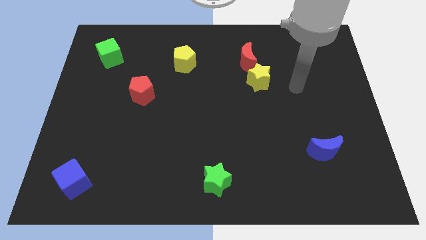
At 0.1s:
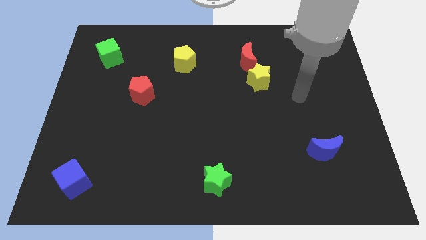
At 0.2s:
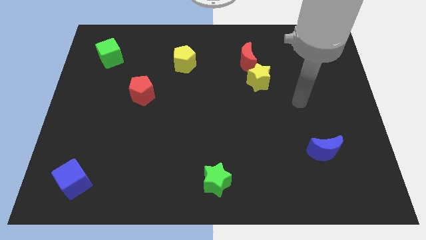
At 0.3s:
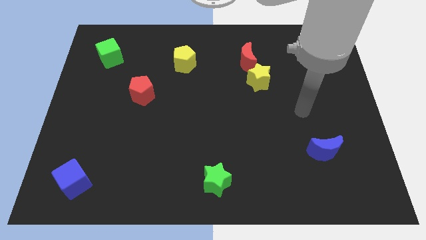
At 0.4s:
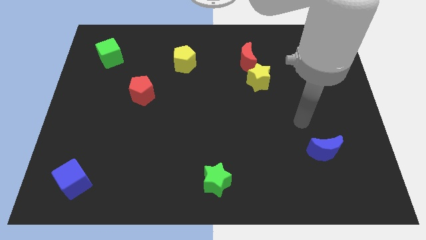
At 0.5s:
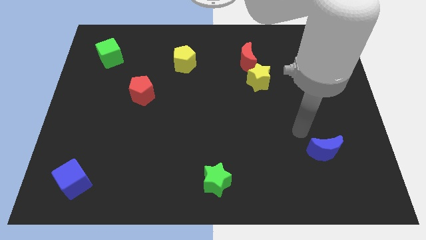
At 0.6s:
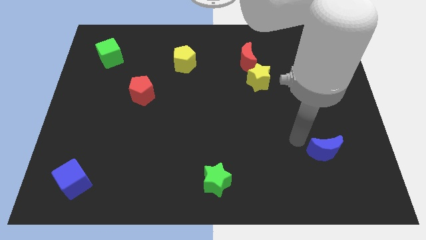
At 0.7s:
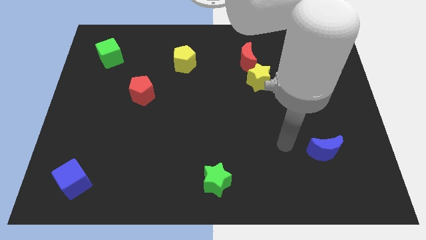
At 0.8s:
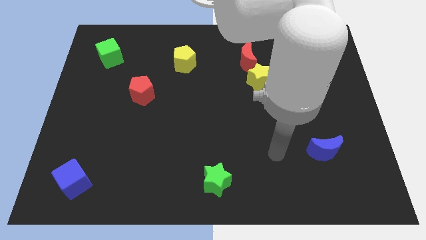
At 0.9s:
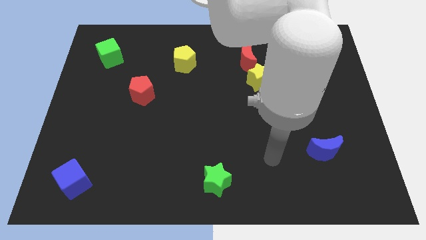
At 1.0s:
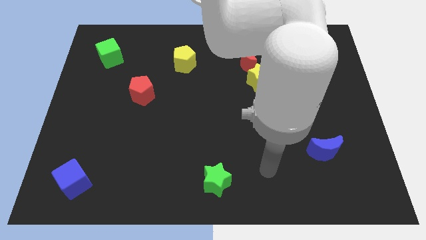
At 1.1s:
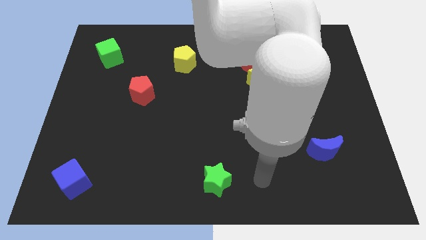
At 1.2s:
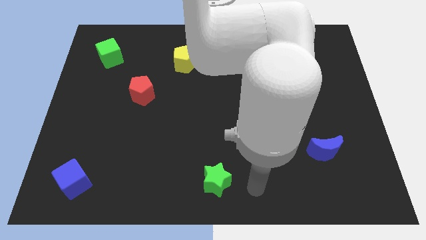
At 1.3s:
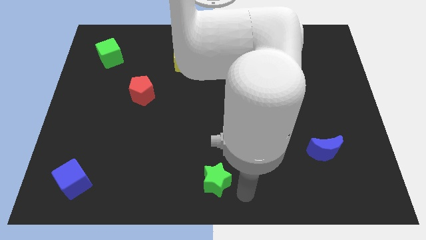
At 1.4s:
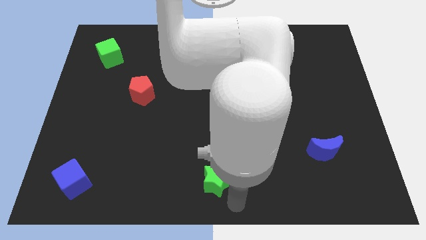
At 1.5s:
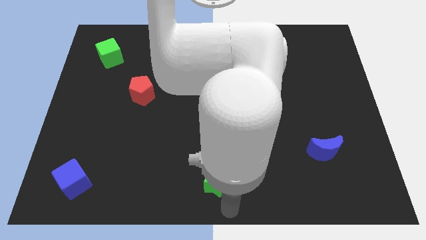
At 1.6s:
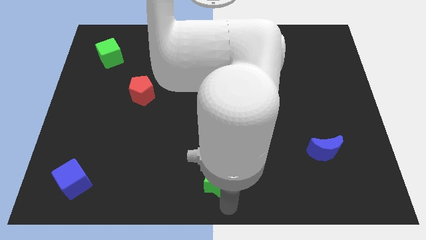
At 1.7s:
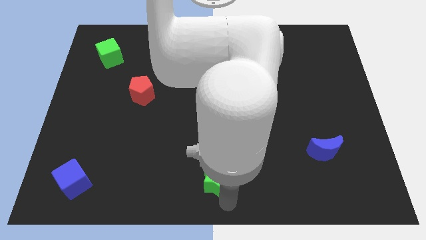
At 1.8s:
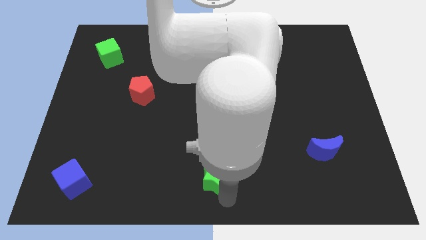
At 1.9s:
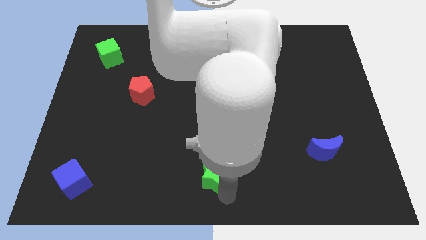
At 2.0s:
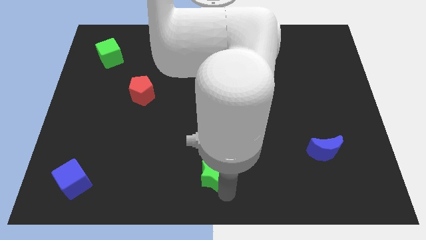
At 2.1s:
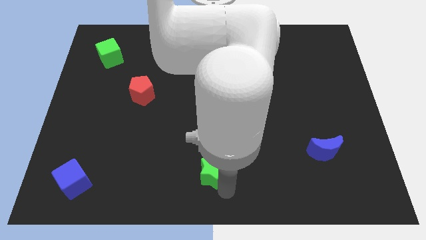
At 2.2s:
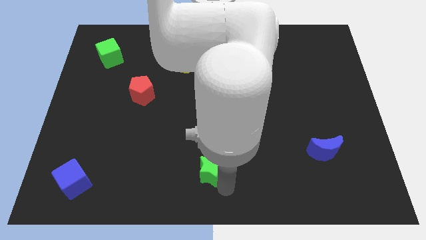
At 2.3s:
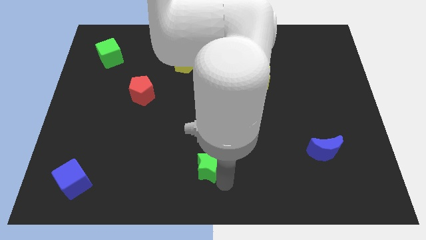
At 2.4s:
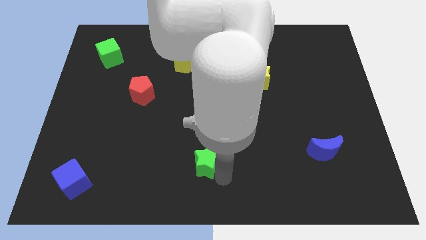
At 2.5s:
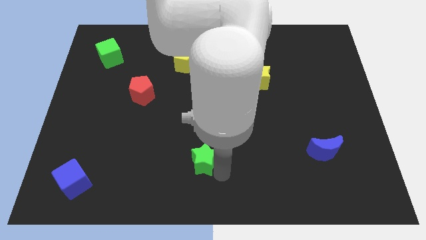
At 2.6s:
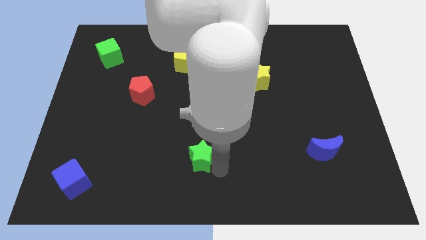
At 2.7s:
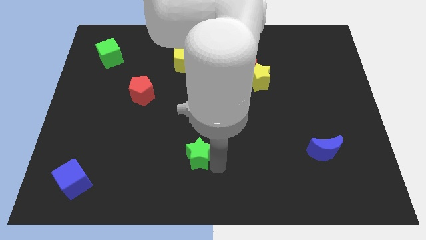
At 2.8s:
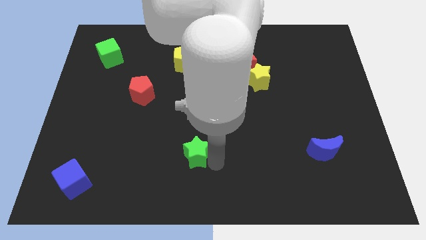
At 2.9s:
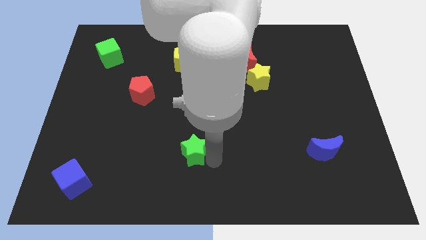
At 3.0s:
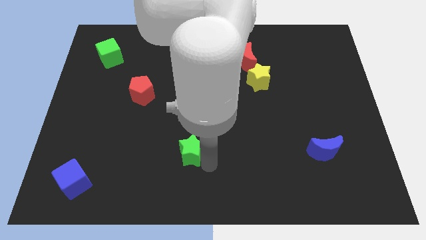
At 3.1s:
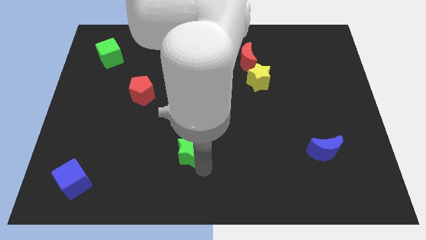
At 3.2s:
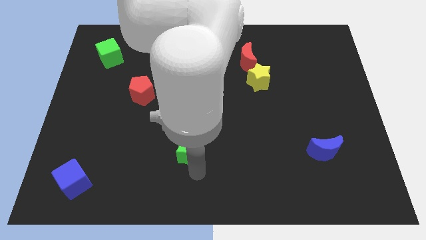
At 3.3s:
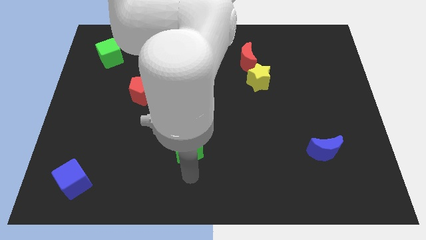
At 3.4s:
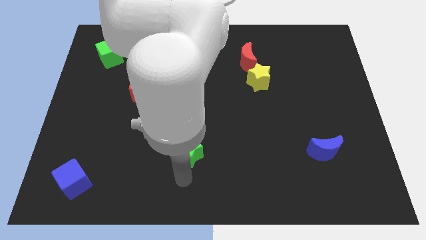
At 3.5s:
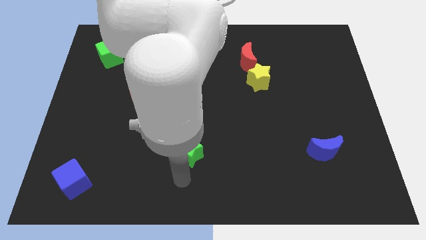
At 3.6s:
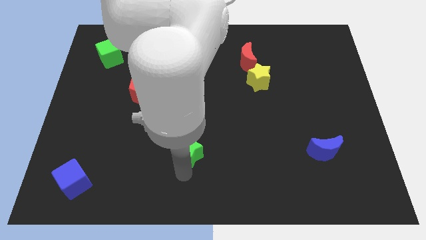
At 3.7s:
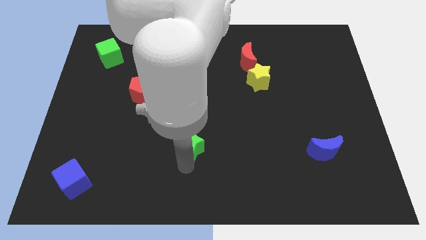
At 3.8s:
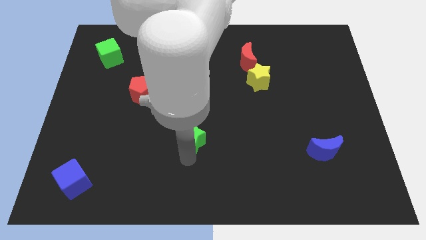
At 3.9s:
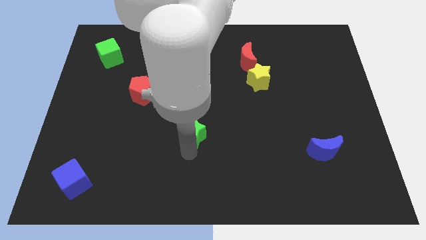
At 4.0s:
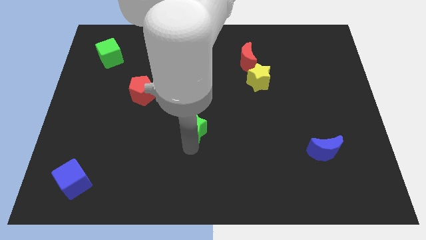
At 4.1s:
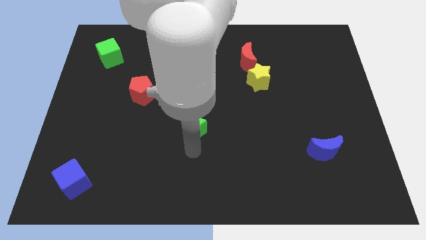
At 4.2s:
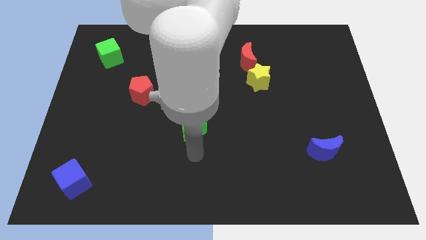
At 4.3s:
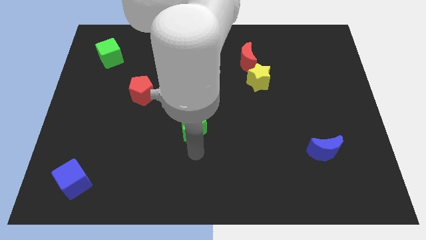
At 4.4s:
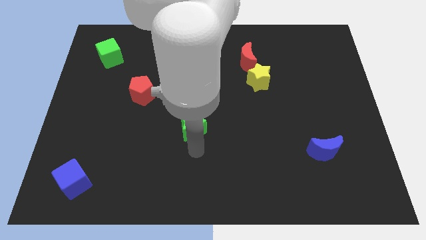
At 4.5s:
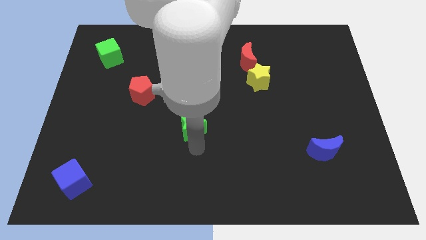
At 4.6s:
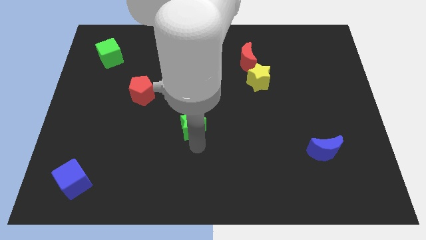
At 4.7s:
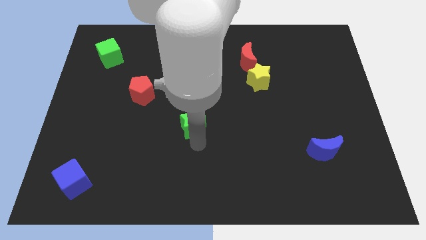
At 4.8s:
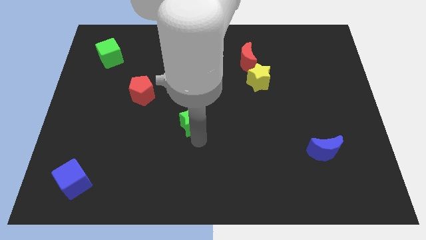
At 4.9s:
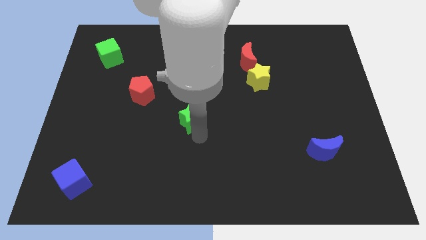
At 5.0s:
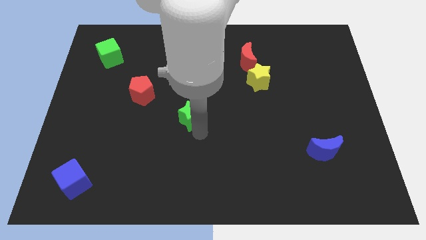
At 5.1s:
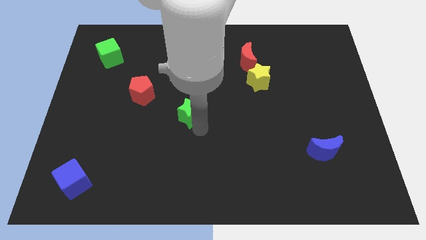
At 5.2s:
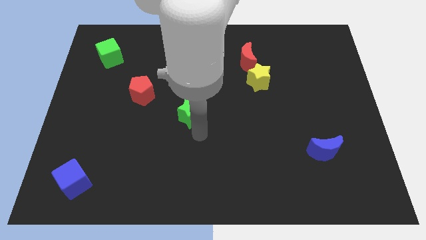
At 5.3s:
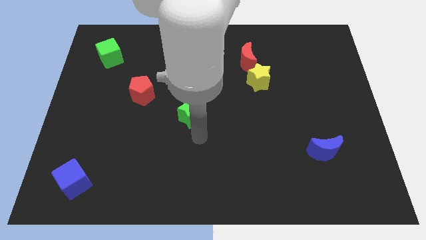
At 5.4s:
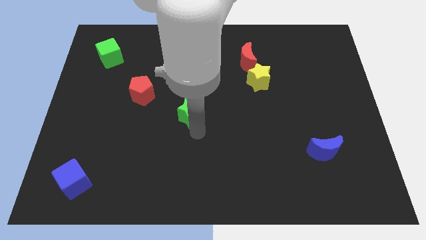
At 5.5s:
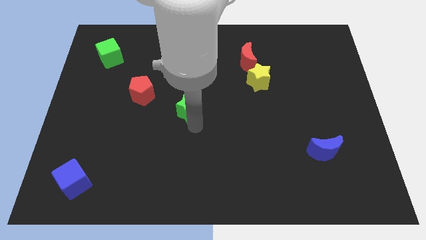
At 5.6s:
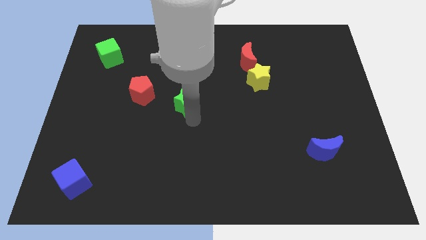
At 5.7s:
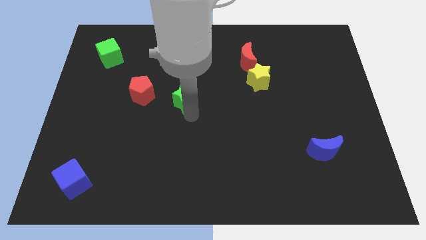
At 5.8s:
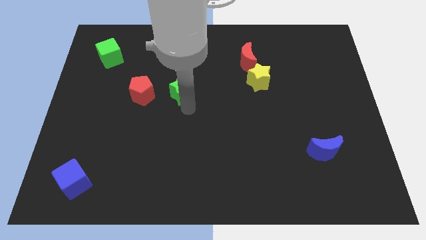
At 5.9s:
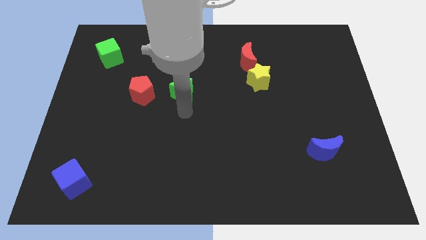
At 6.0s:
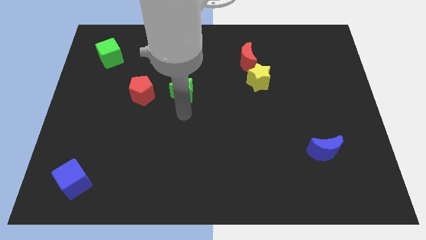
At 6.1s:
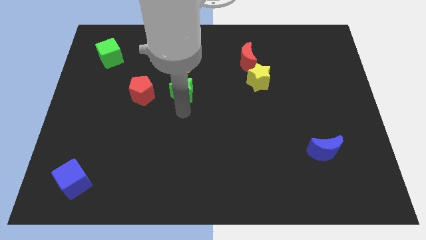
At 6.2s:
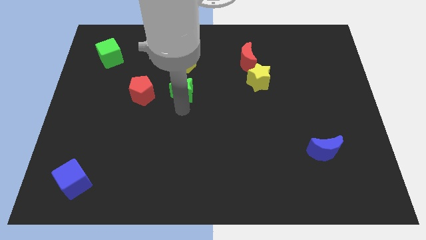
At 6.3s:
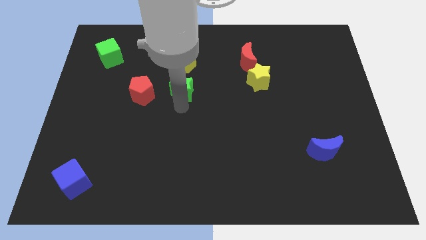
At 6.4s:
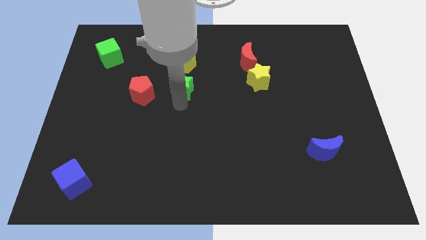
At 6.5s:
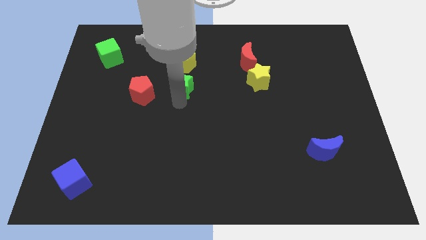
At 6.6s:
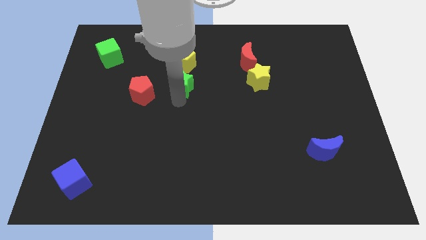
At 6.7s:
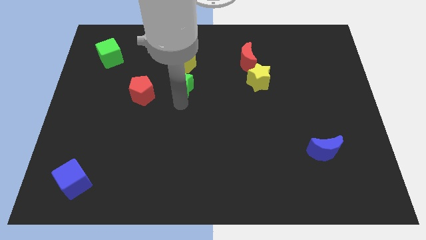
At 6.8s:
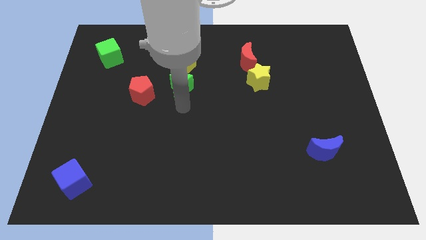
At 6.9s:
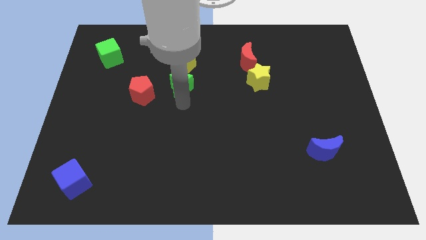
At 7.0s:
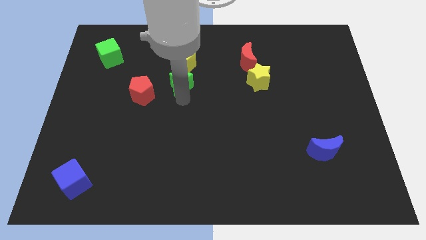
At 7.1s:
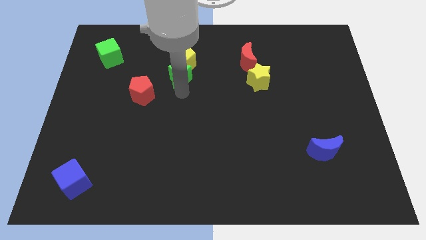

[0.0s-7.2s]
push the green star to the yellow pentagon
